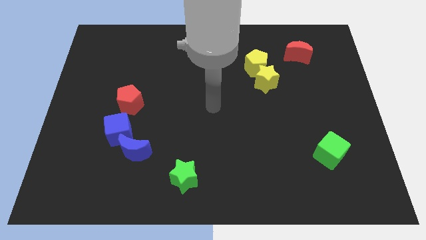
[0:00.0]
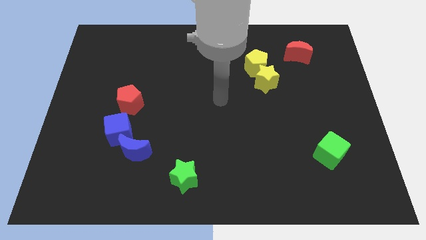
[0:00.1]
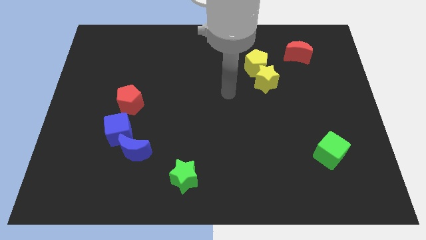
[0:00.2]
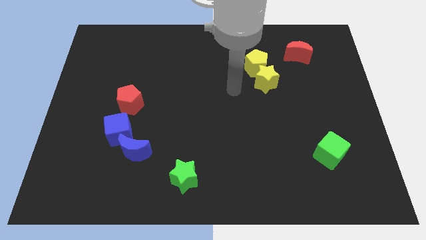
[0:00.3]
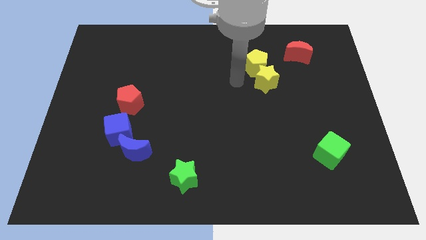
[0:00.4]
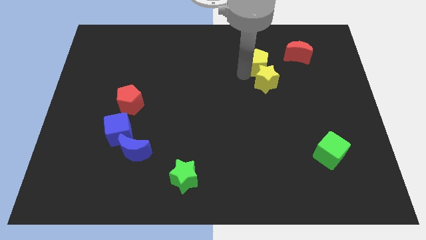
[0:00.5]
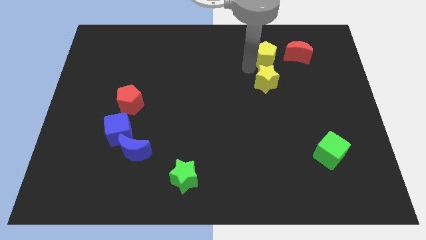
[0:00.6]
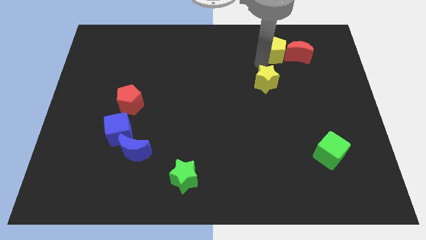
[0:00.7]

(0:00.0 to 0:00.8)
separate the yellow star from the yellow pentagon

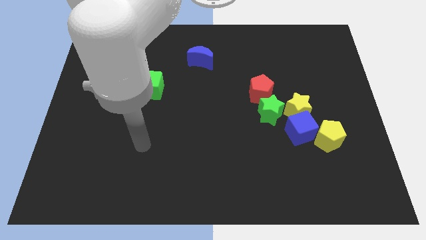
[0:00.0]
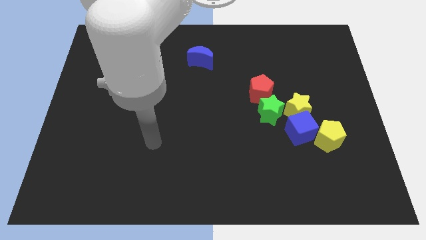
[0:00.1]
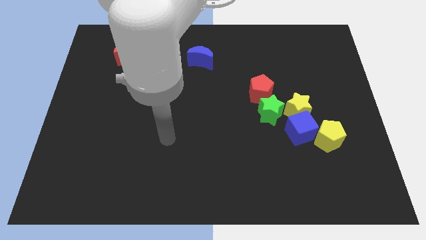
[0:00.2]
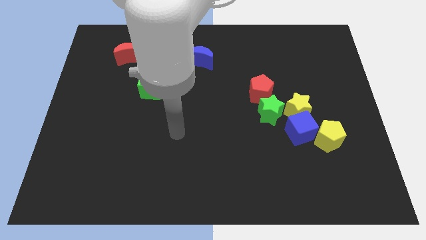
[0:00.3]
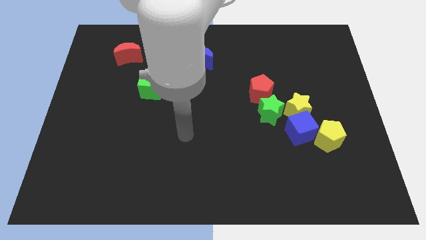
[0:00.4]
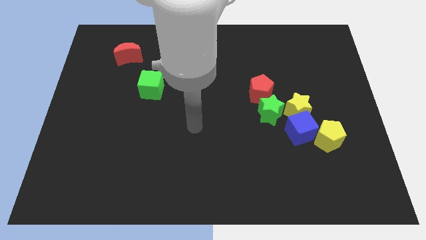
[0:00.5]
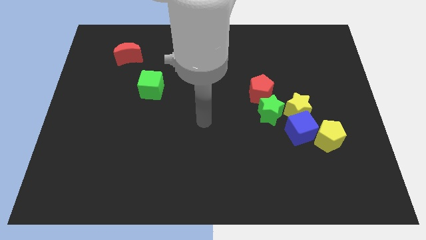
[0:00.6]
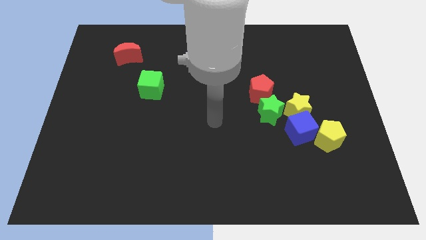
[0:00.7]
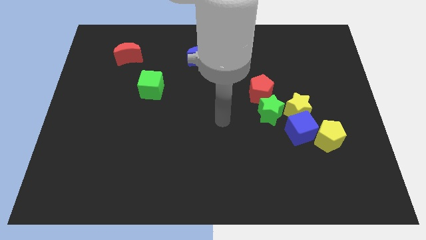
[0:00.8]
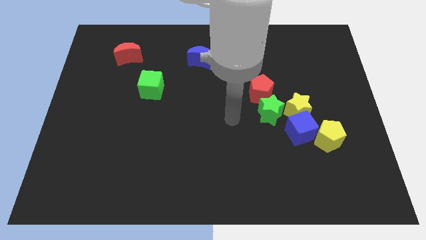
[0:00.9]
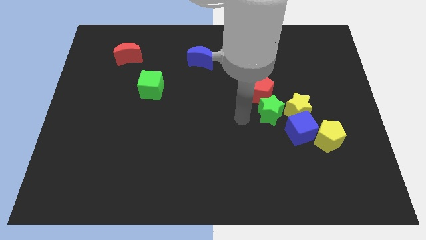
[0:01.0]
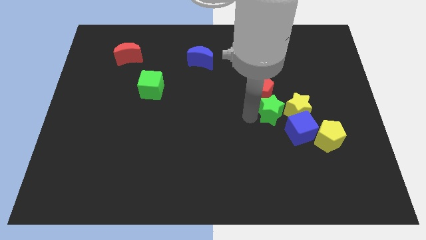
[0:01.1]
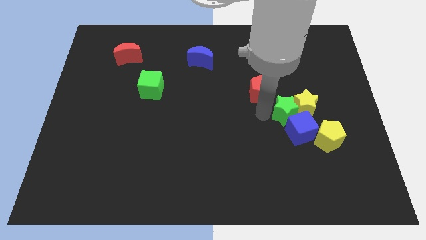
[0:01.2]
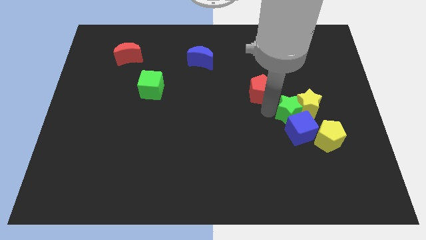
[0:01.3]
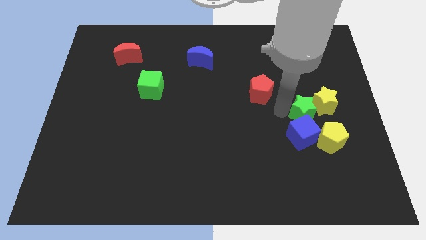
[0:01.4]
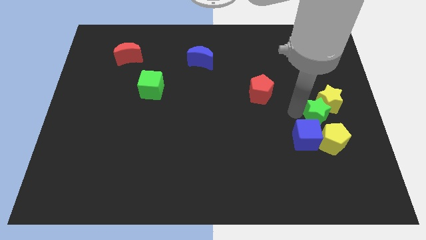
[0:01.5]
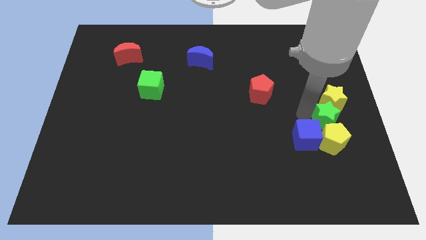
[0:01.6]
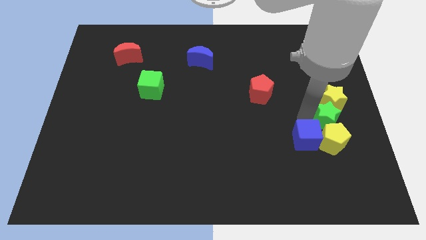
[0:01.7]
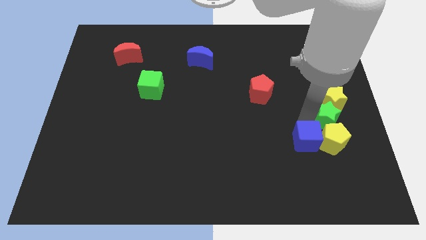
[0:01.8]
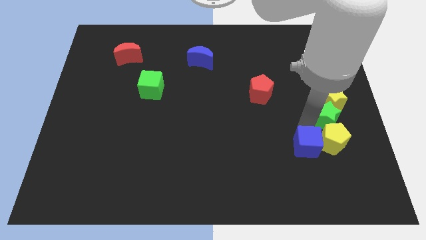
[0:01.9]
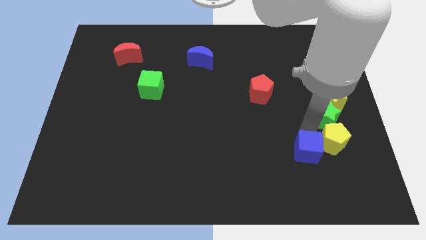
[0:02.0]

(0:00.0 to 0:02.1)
pull the blue cube apart from the clump

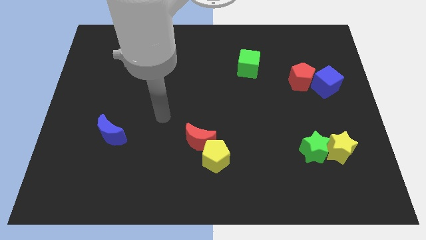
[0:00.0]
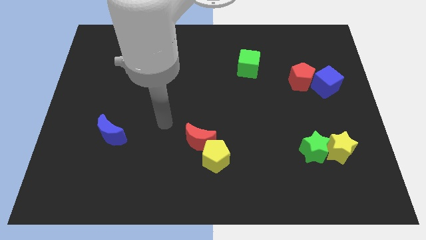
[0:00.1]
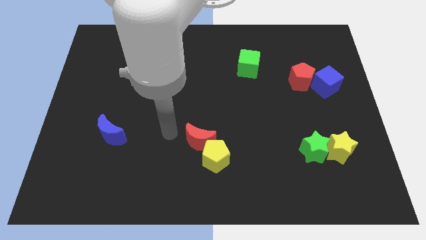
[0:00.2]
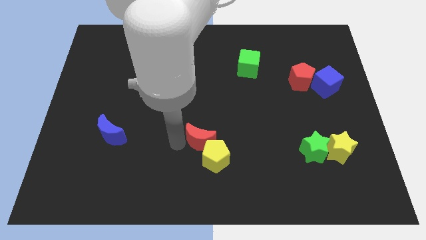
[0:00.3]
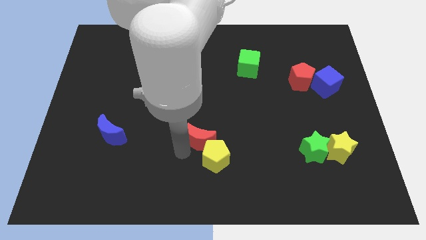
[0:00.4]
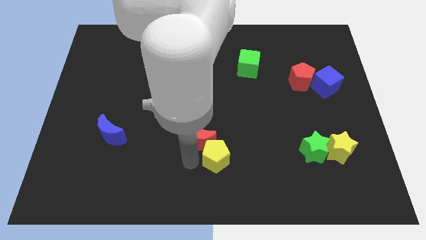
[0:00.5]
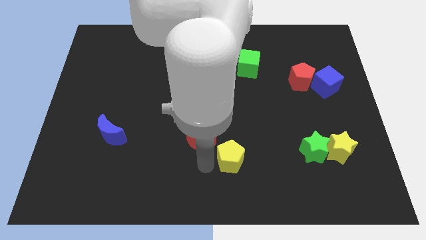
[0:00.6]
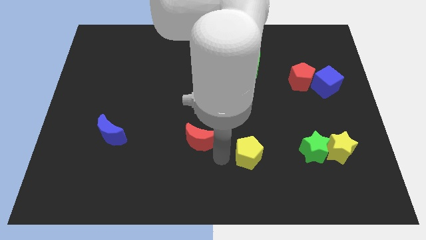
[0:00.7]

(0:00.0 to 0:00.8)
separate the red moon from the yellow pentagon

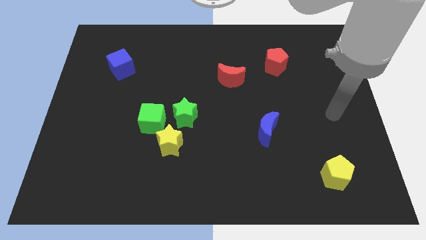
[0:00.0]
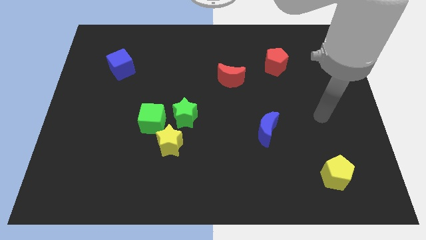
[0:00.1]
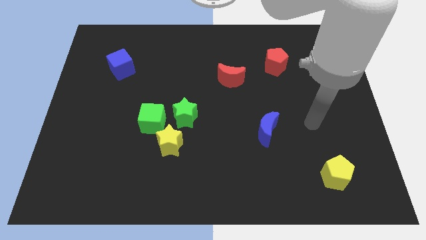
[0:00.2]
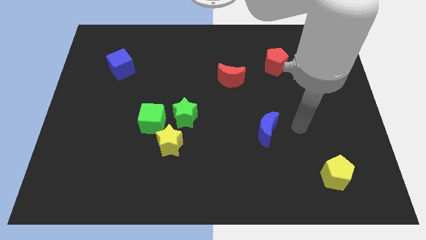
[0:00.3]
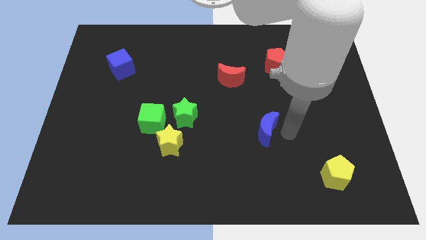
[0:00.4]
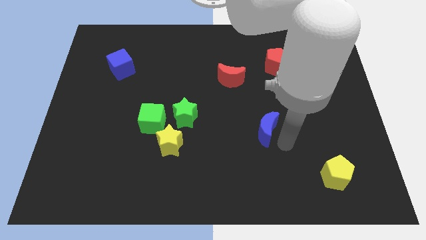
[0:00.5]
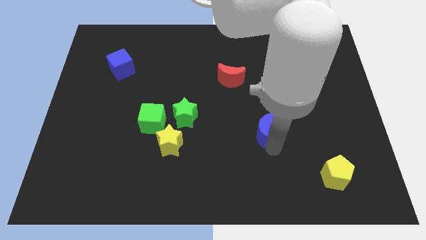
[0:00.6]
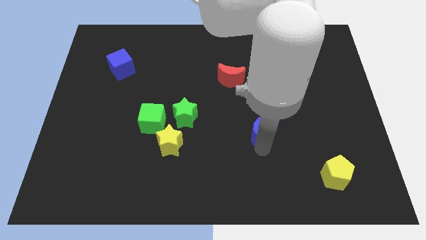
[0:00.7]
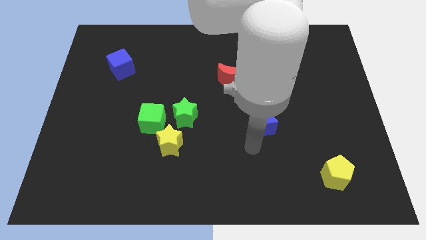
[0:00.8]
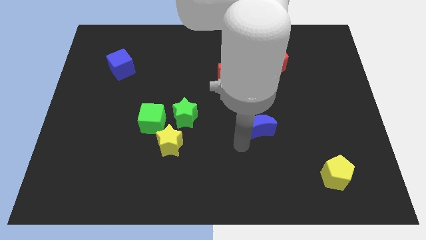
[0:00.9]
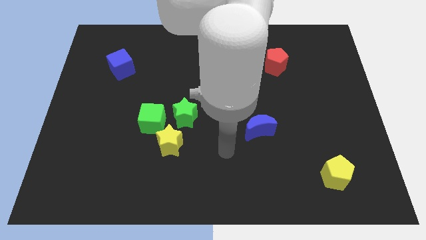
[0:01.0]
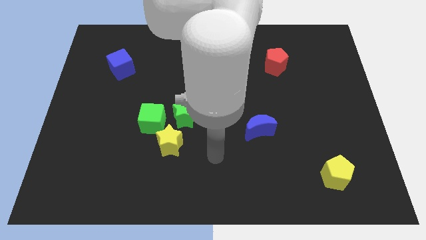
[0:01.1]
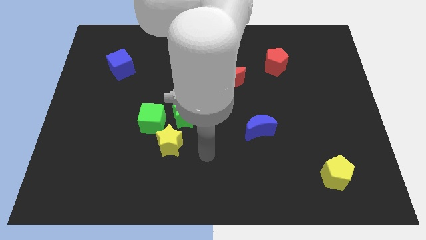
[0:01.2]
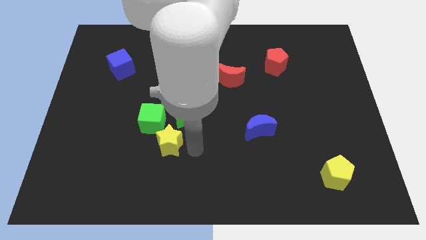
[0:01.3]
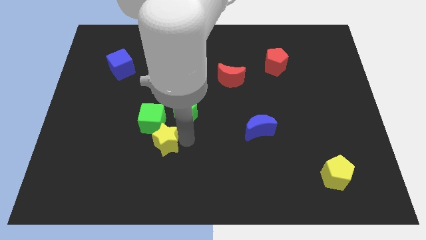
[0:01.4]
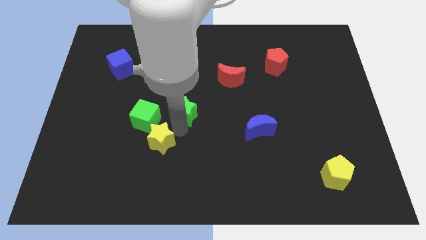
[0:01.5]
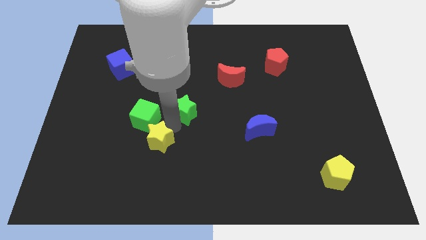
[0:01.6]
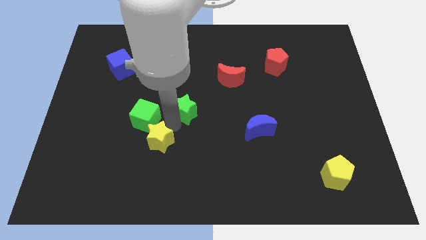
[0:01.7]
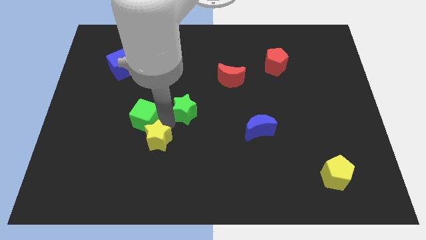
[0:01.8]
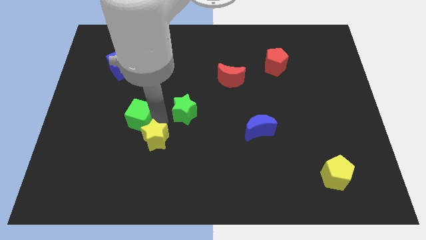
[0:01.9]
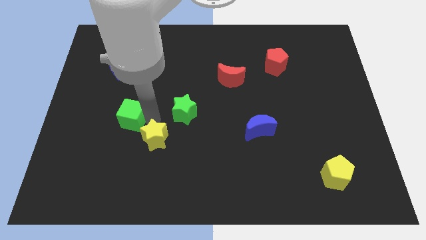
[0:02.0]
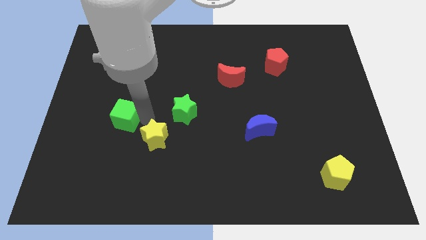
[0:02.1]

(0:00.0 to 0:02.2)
separate the green cube from the green star and yellow star

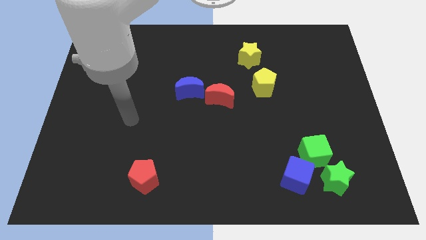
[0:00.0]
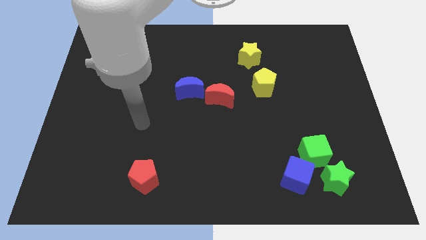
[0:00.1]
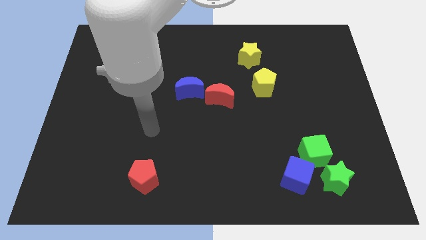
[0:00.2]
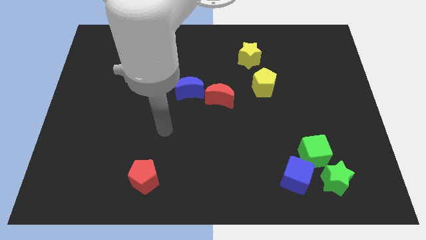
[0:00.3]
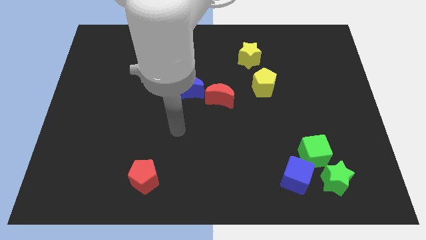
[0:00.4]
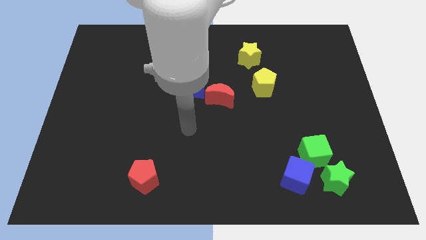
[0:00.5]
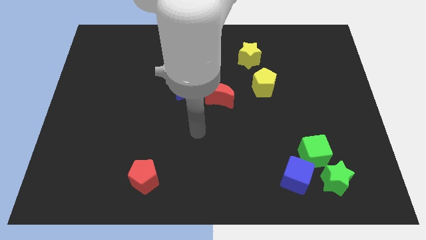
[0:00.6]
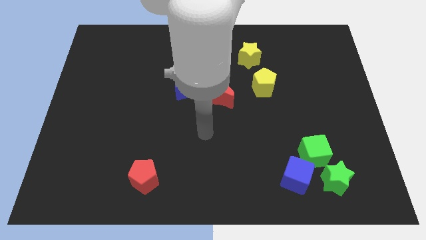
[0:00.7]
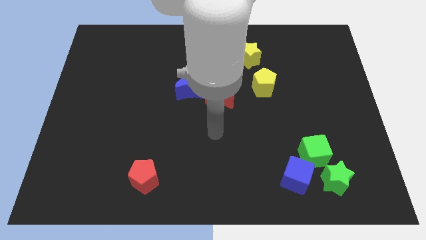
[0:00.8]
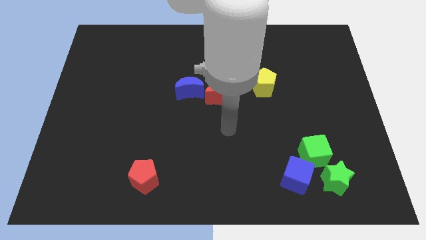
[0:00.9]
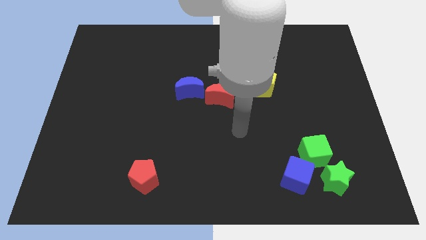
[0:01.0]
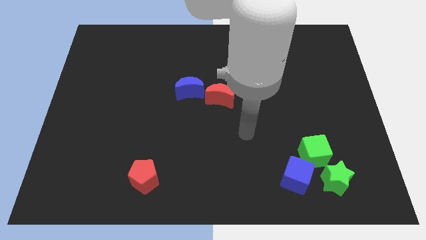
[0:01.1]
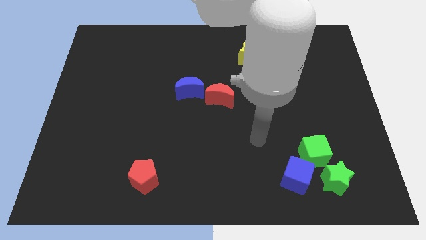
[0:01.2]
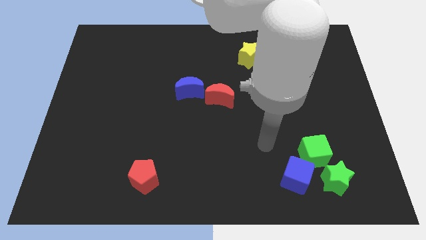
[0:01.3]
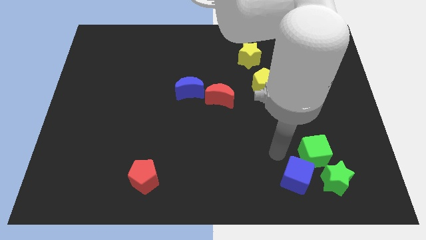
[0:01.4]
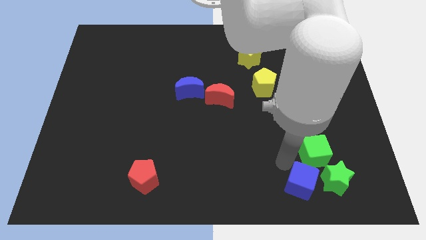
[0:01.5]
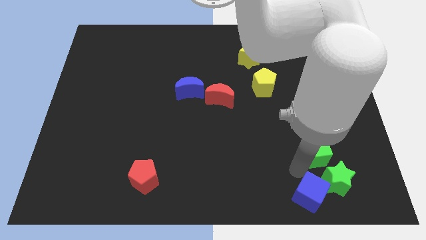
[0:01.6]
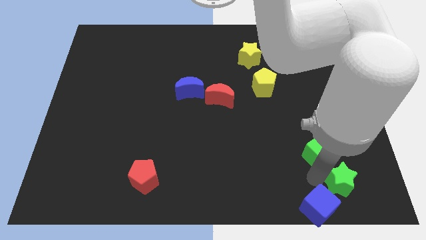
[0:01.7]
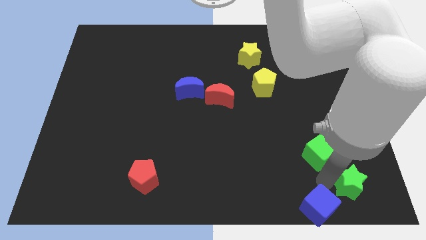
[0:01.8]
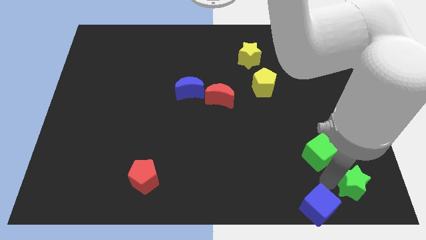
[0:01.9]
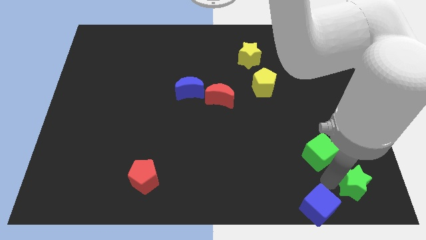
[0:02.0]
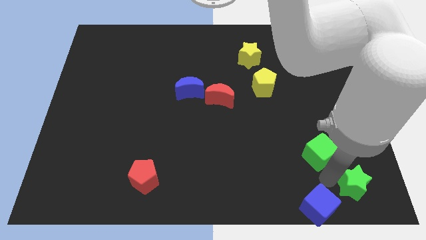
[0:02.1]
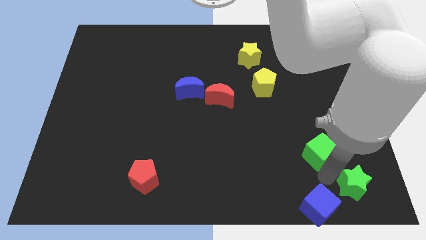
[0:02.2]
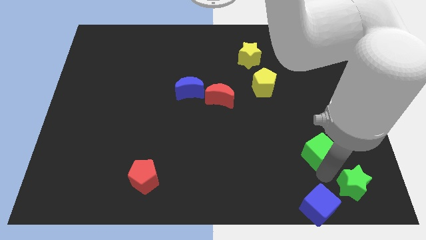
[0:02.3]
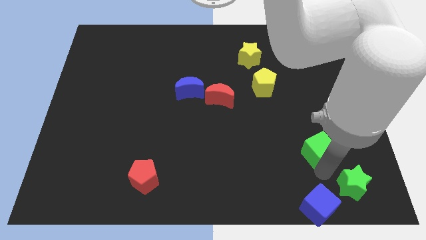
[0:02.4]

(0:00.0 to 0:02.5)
separate the green cube from the blue cube and green star

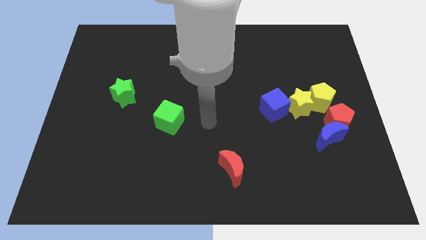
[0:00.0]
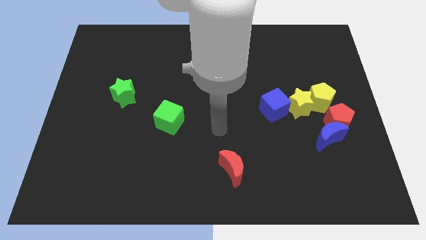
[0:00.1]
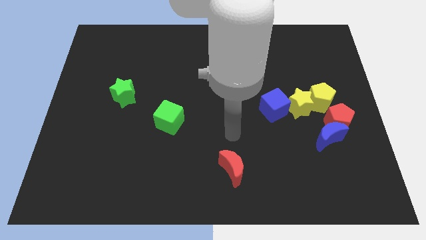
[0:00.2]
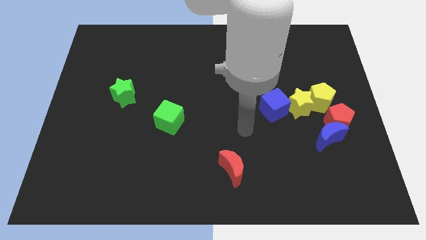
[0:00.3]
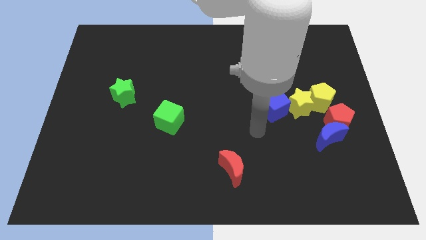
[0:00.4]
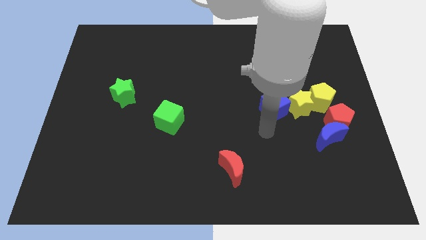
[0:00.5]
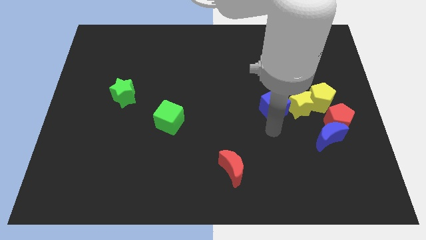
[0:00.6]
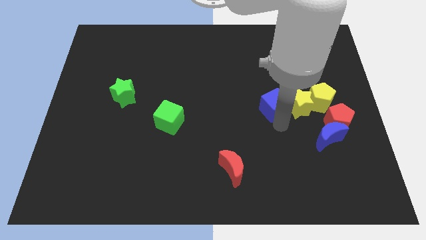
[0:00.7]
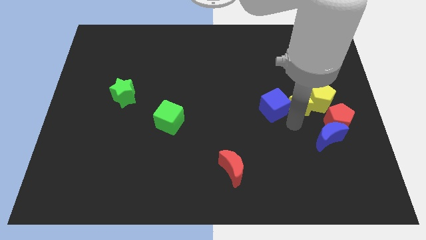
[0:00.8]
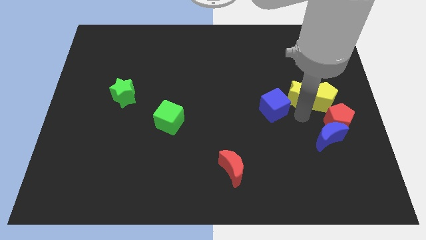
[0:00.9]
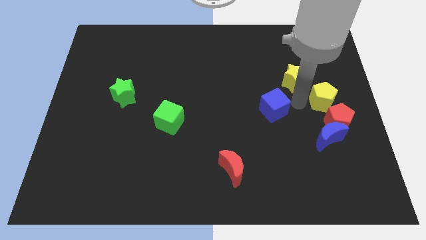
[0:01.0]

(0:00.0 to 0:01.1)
move the blue cube away from the yellow star
